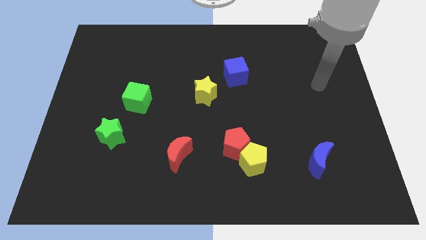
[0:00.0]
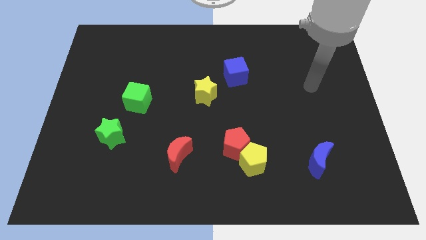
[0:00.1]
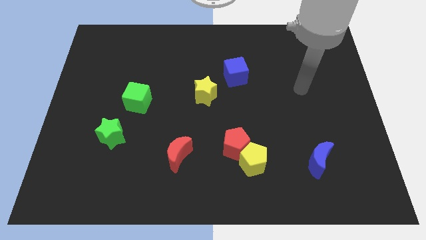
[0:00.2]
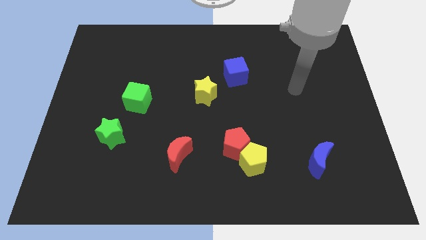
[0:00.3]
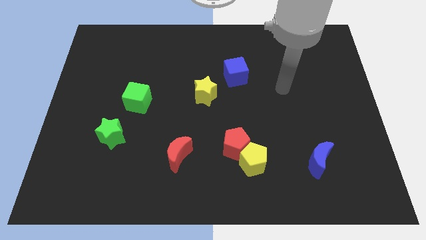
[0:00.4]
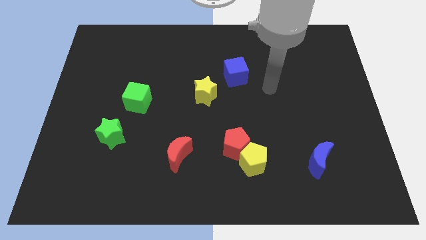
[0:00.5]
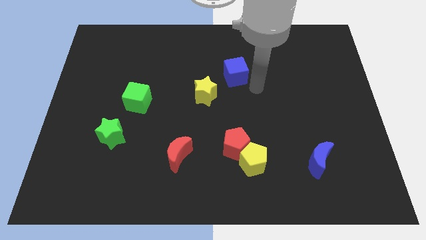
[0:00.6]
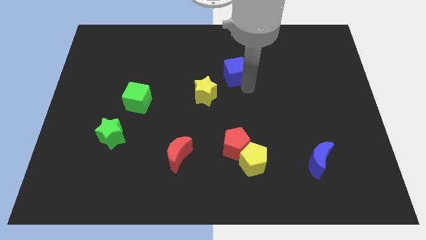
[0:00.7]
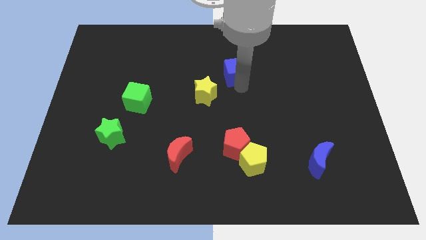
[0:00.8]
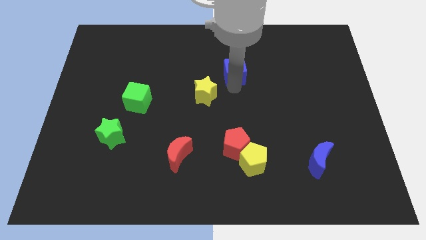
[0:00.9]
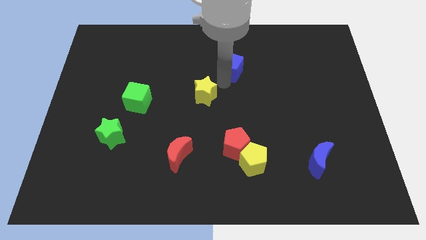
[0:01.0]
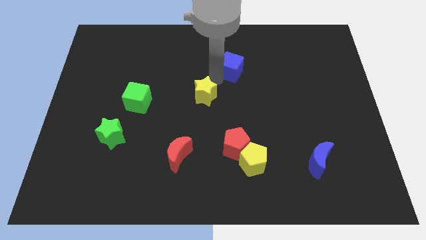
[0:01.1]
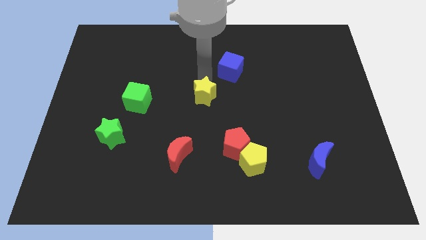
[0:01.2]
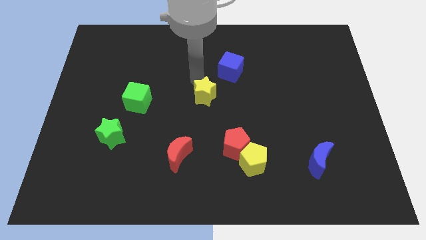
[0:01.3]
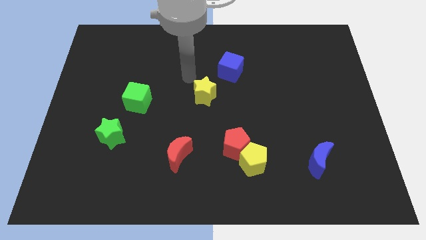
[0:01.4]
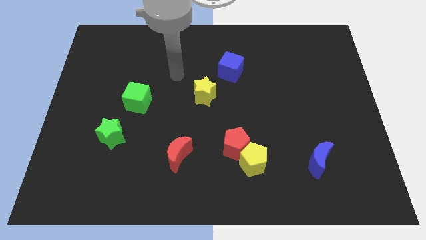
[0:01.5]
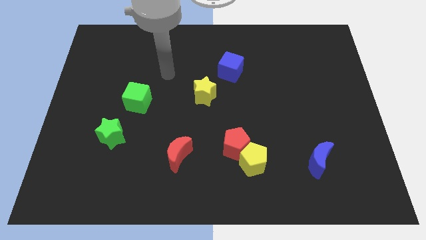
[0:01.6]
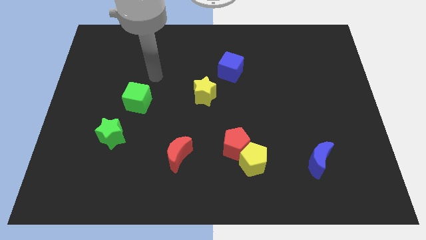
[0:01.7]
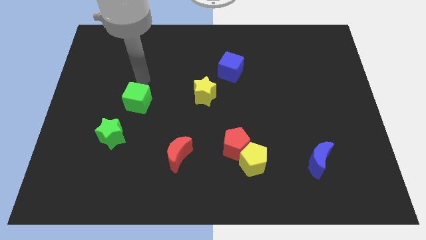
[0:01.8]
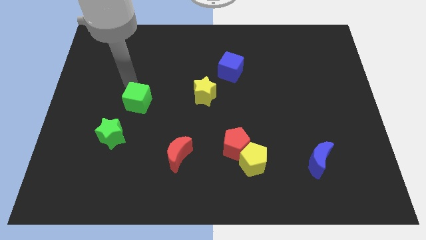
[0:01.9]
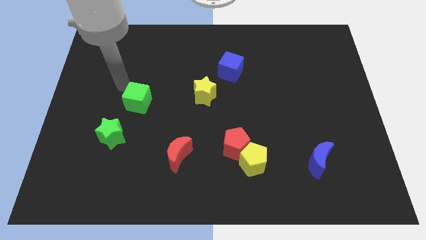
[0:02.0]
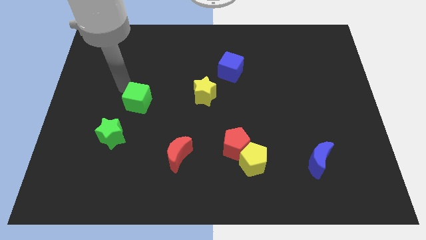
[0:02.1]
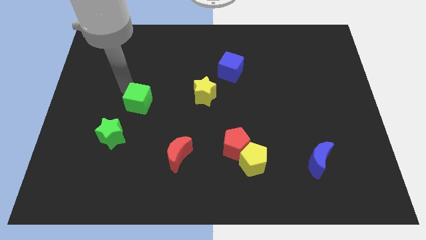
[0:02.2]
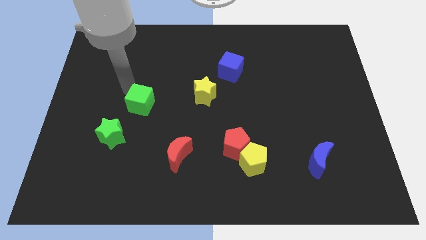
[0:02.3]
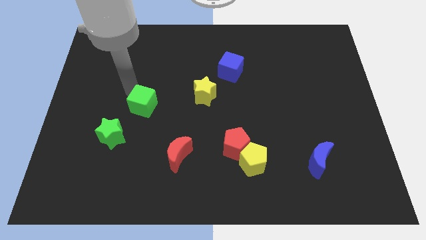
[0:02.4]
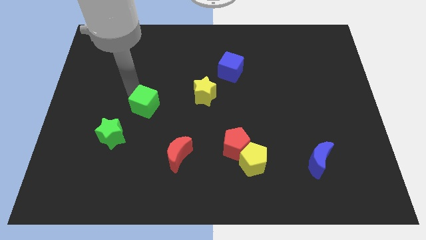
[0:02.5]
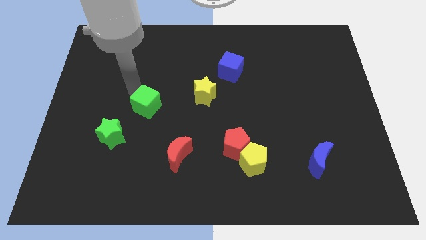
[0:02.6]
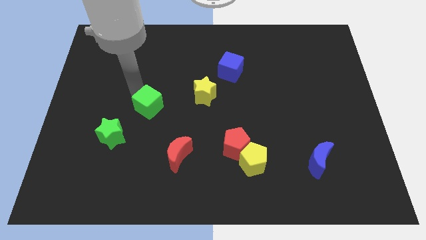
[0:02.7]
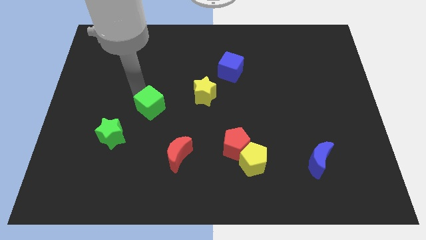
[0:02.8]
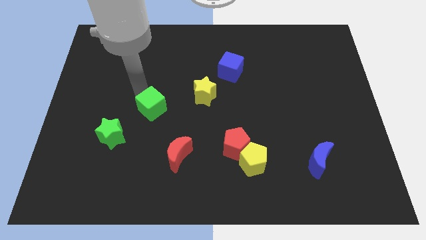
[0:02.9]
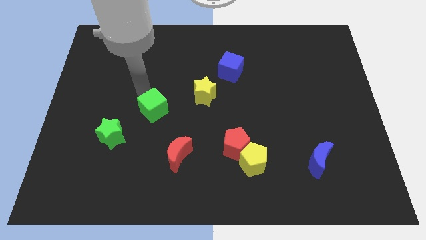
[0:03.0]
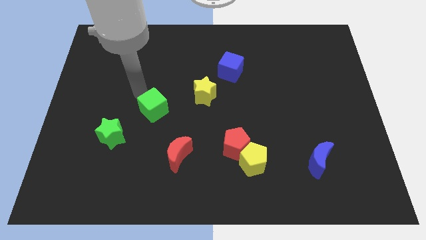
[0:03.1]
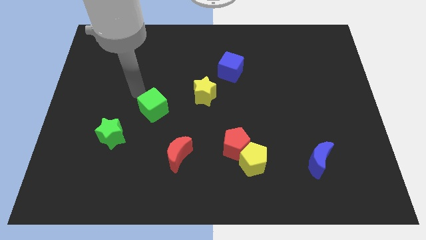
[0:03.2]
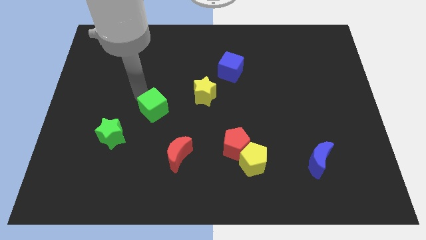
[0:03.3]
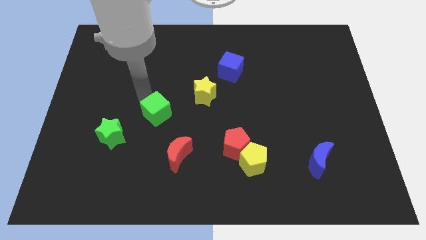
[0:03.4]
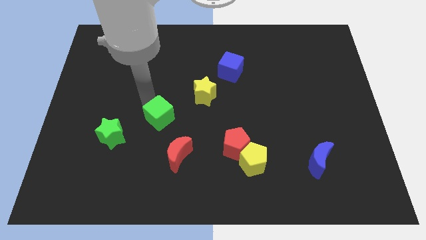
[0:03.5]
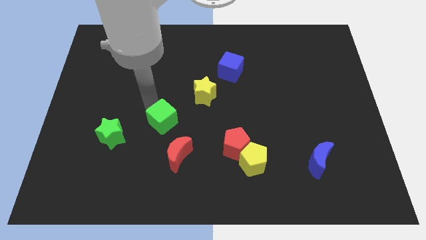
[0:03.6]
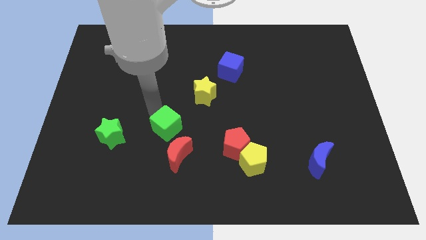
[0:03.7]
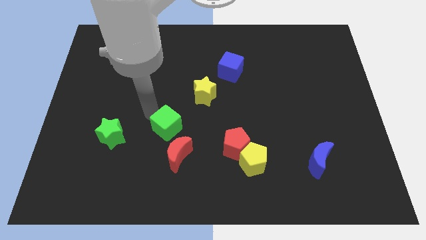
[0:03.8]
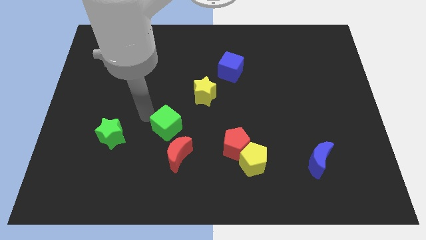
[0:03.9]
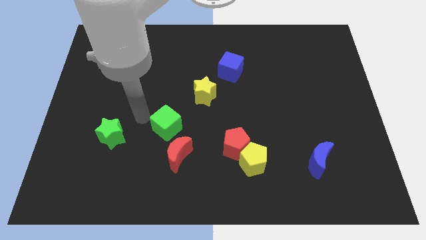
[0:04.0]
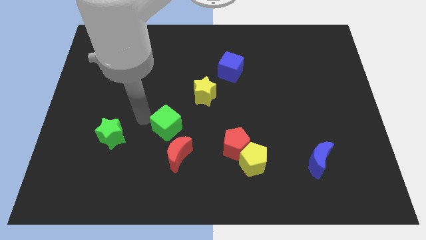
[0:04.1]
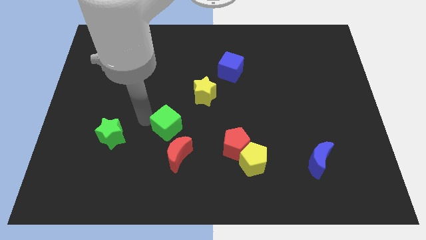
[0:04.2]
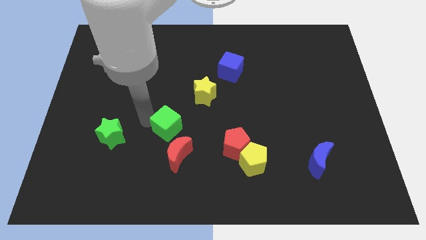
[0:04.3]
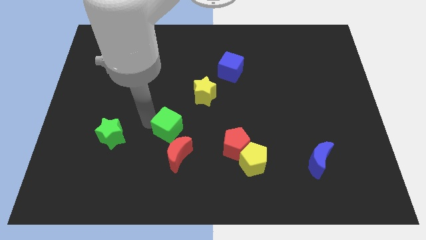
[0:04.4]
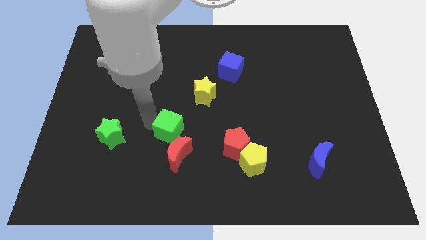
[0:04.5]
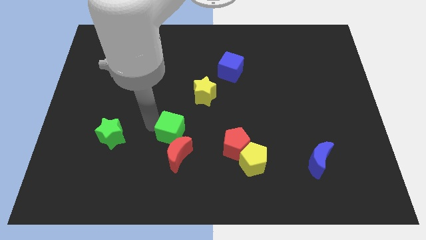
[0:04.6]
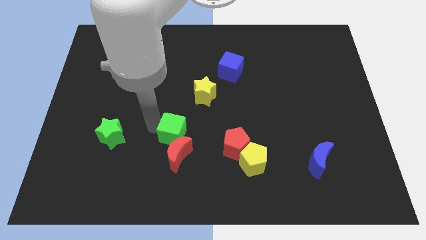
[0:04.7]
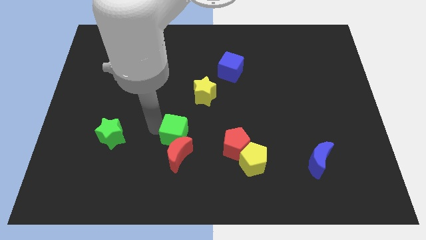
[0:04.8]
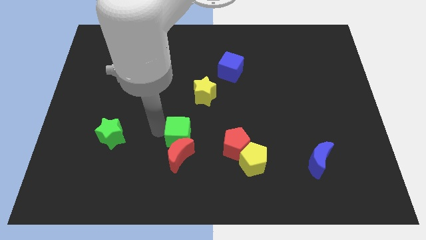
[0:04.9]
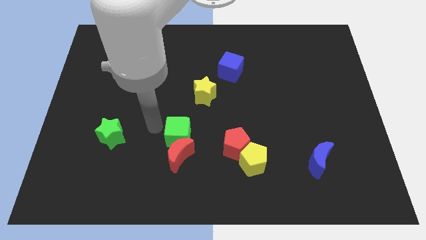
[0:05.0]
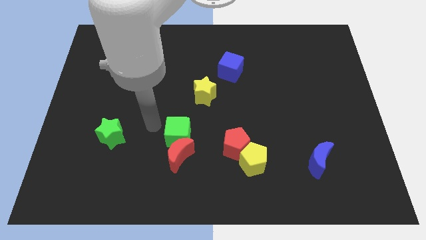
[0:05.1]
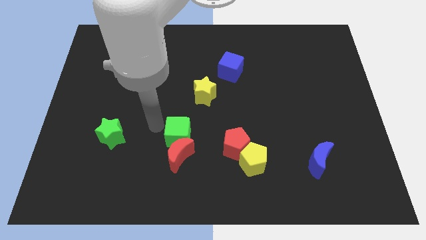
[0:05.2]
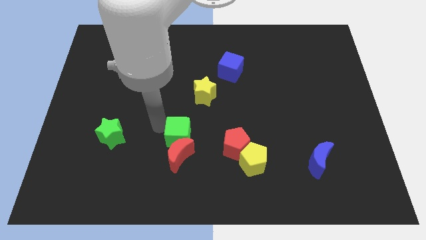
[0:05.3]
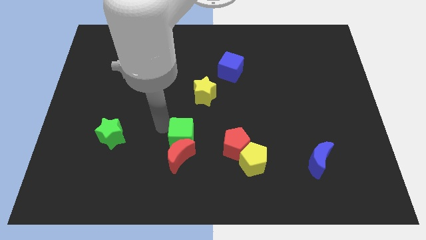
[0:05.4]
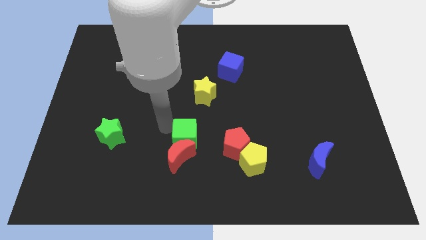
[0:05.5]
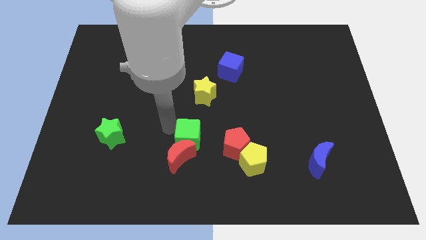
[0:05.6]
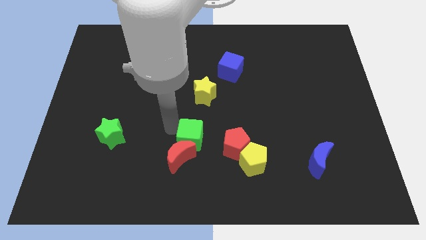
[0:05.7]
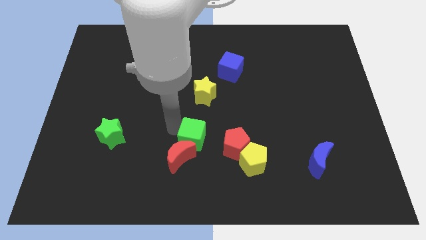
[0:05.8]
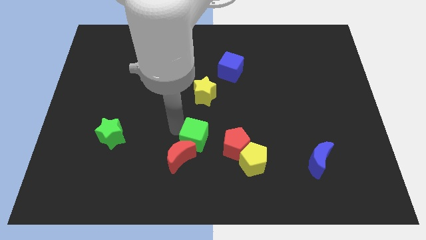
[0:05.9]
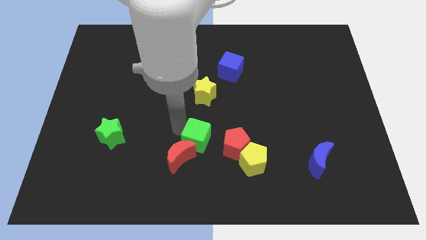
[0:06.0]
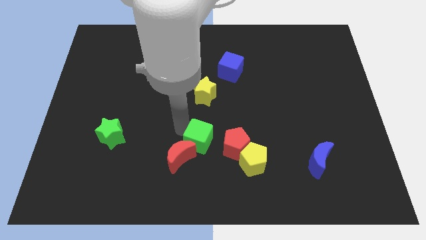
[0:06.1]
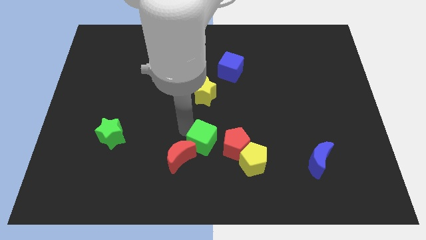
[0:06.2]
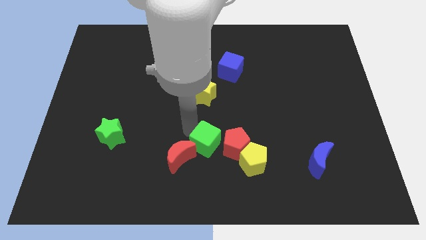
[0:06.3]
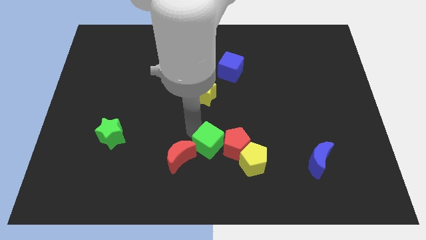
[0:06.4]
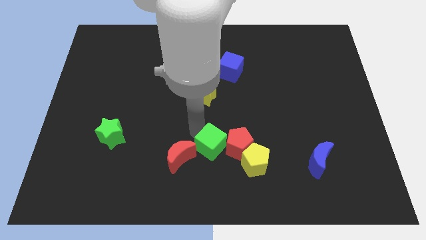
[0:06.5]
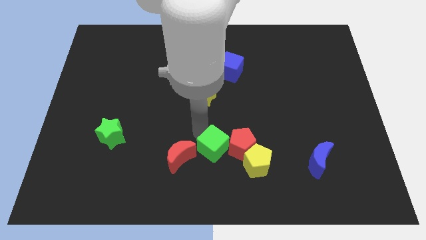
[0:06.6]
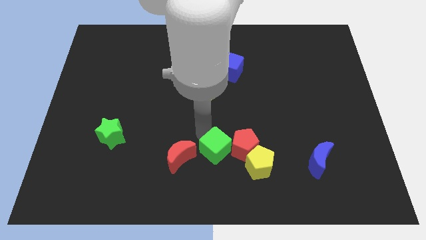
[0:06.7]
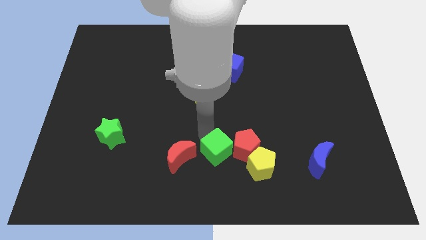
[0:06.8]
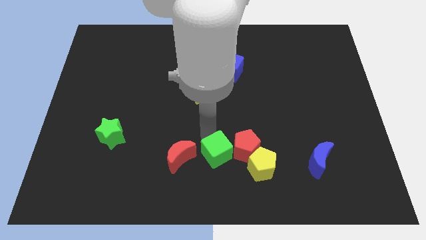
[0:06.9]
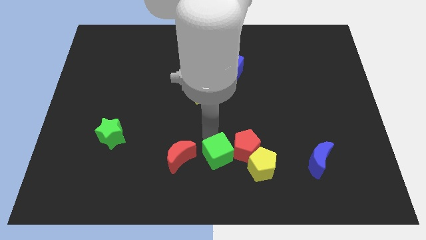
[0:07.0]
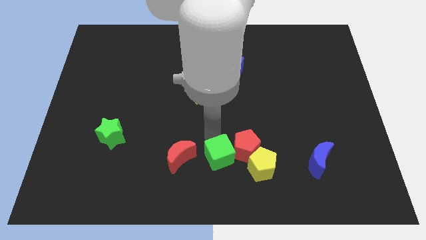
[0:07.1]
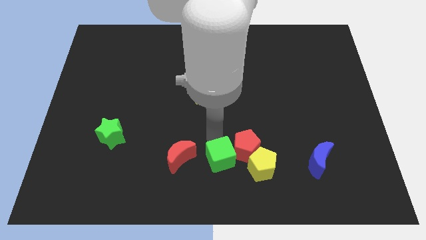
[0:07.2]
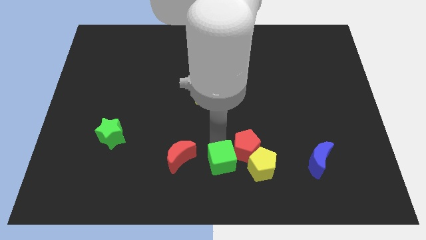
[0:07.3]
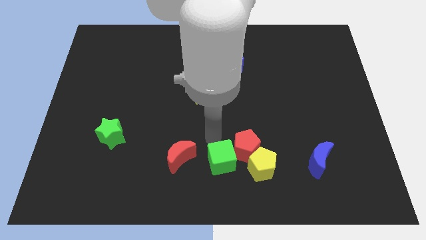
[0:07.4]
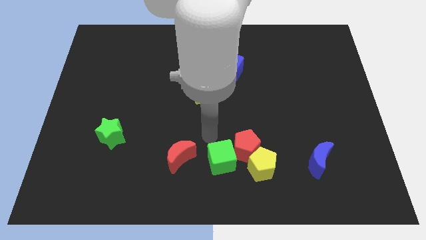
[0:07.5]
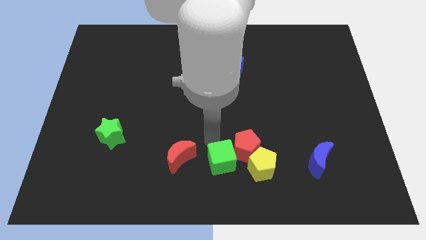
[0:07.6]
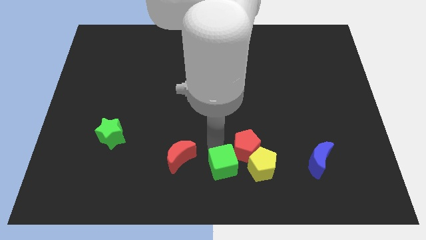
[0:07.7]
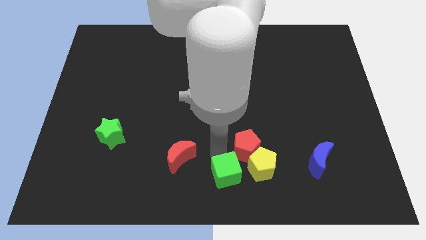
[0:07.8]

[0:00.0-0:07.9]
push the green cube to the bottom left of the yellow pentagon
